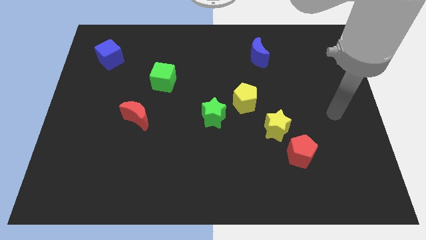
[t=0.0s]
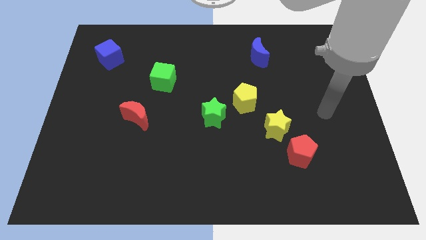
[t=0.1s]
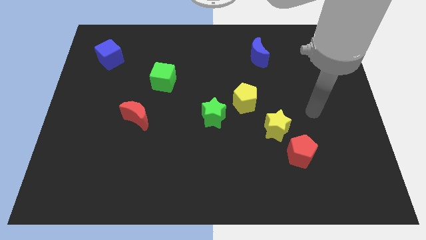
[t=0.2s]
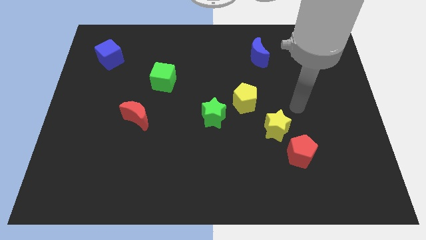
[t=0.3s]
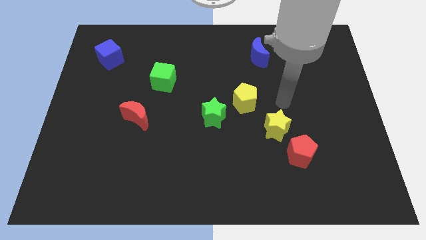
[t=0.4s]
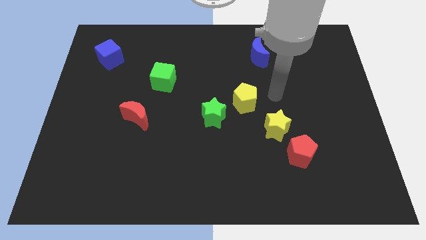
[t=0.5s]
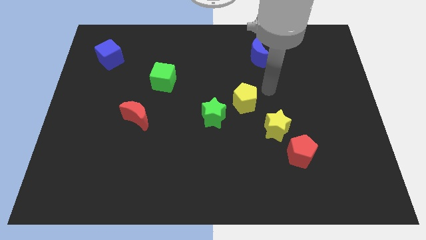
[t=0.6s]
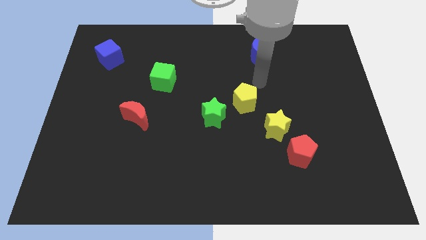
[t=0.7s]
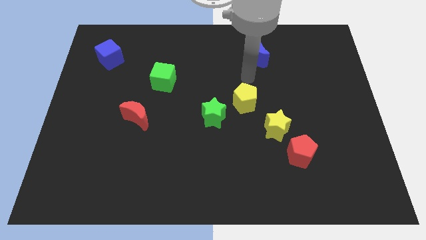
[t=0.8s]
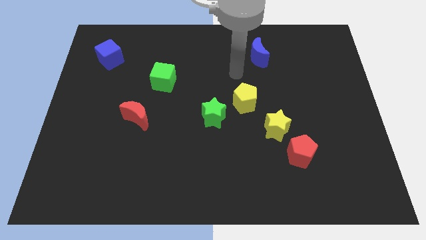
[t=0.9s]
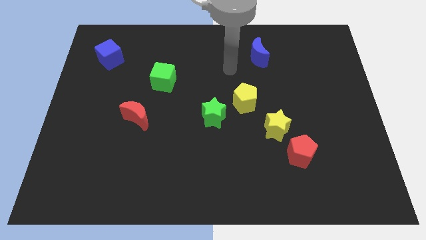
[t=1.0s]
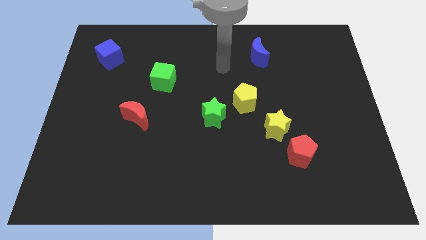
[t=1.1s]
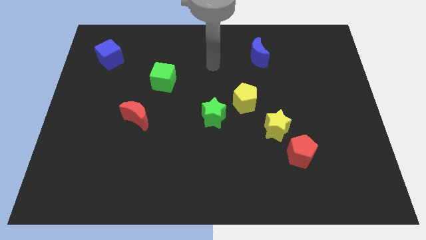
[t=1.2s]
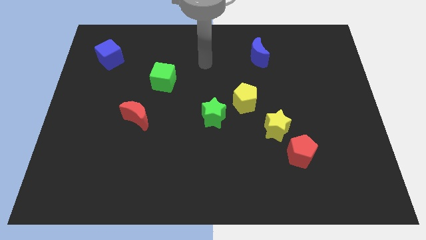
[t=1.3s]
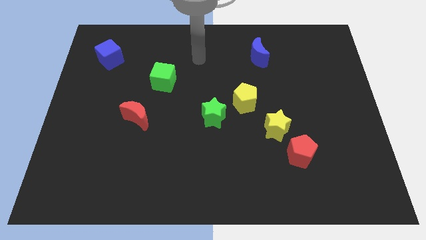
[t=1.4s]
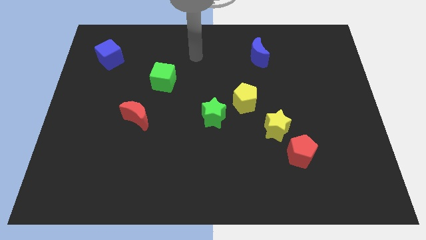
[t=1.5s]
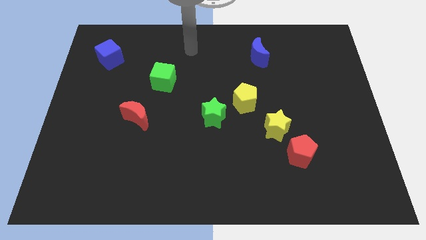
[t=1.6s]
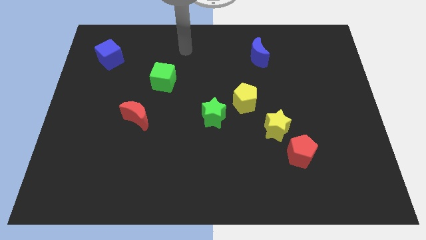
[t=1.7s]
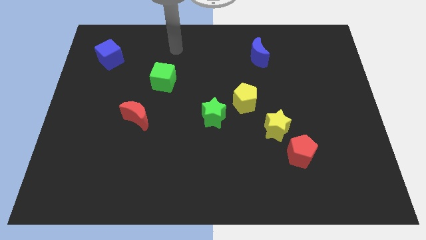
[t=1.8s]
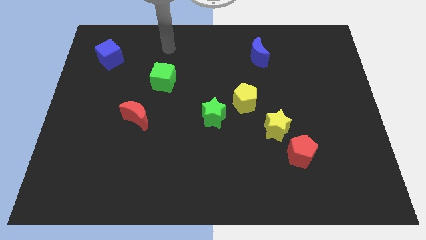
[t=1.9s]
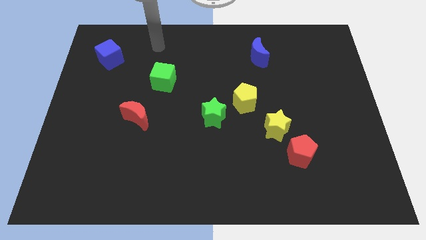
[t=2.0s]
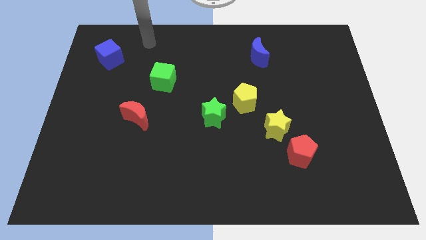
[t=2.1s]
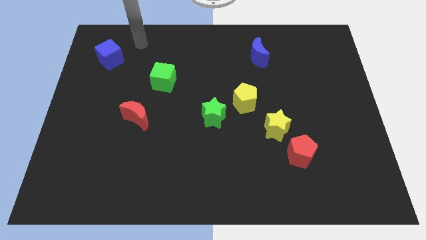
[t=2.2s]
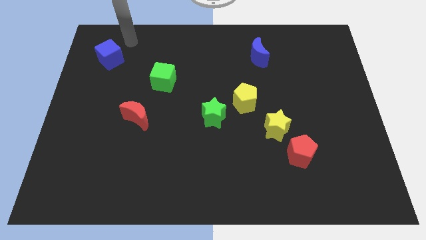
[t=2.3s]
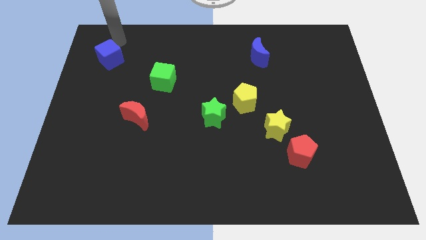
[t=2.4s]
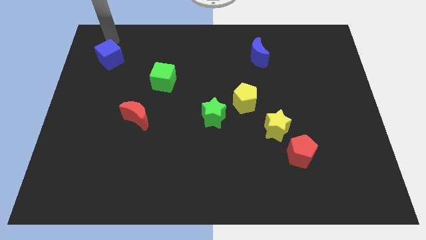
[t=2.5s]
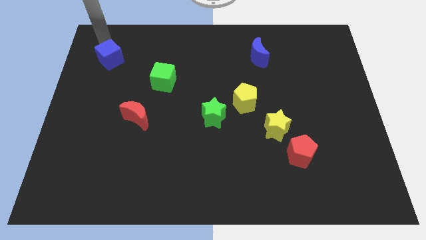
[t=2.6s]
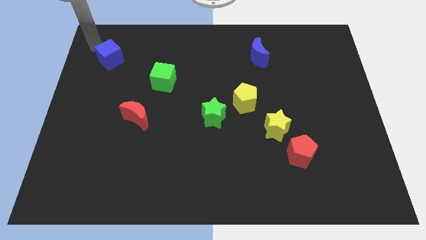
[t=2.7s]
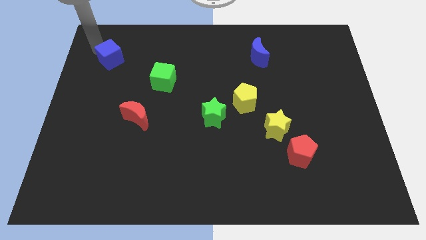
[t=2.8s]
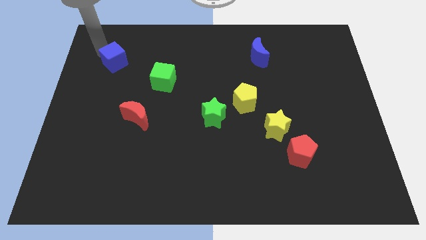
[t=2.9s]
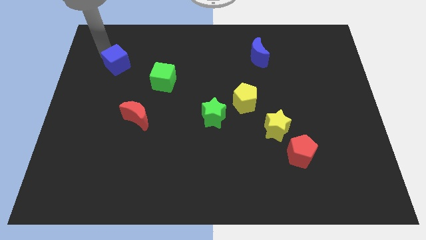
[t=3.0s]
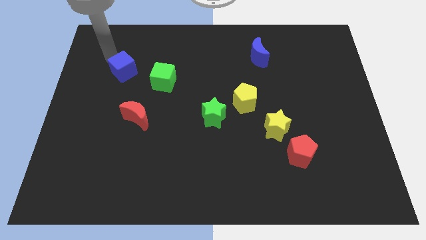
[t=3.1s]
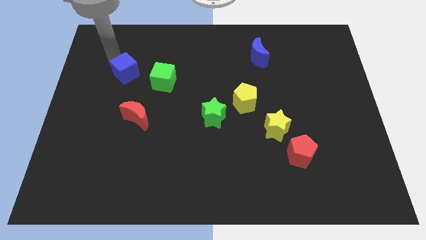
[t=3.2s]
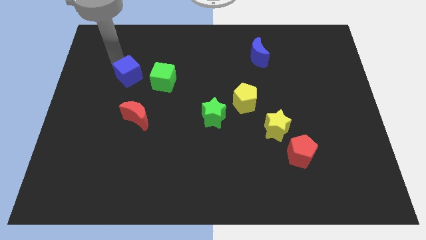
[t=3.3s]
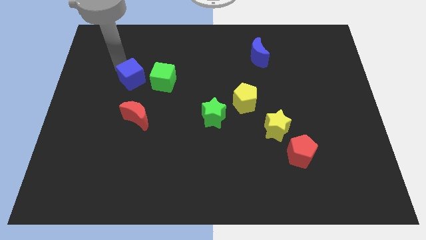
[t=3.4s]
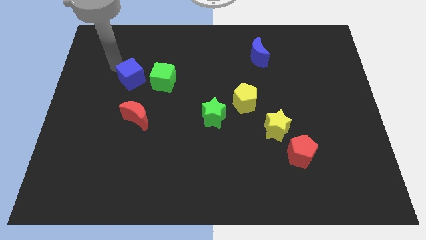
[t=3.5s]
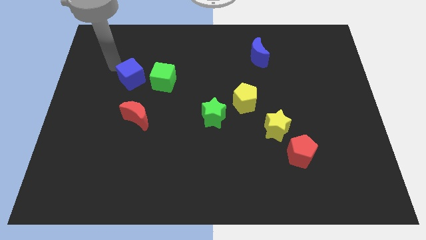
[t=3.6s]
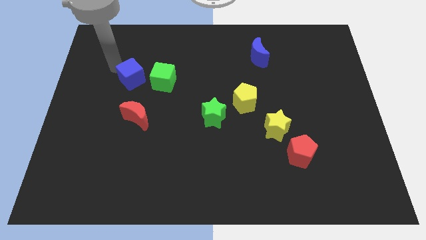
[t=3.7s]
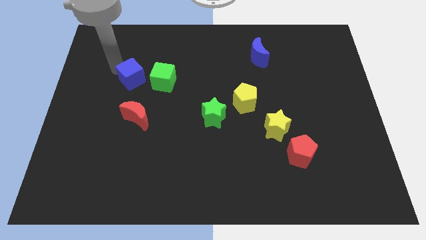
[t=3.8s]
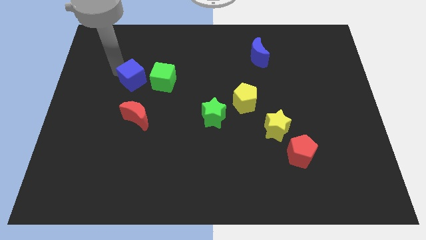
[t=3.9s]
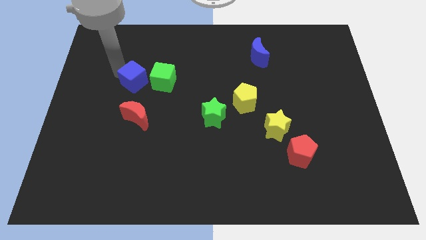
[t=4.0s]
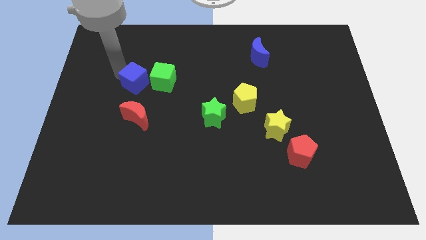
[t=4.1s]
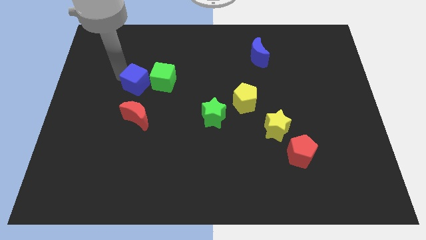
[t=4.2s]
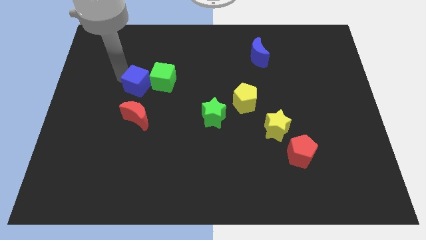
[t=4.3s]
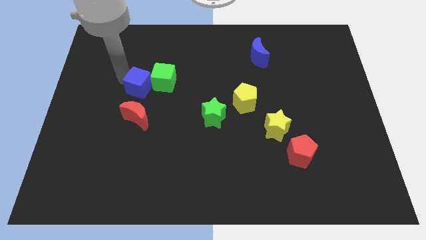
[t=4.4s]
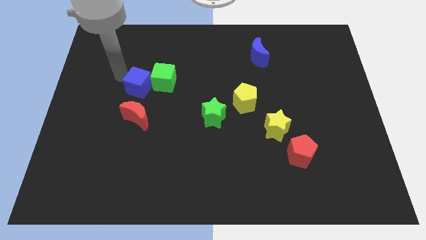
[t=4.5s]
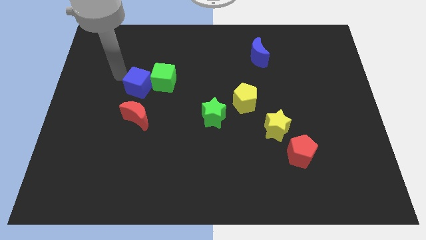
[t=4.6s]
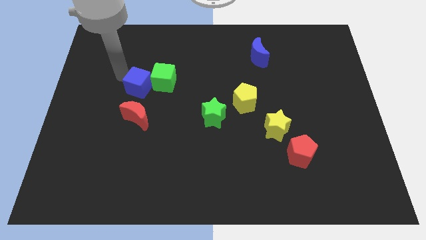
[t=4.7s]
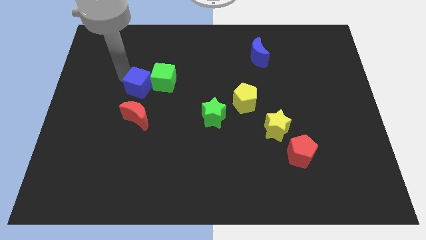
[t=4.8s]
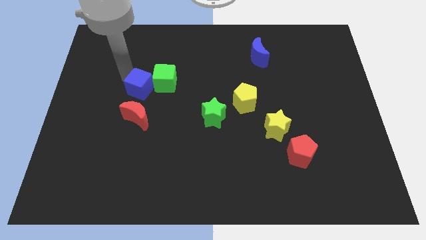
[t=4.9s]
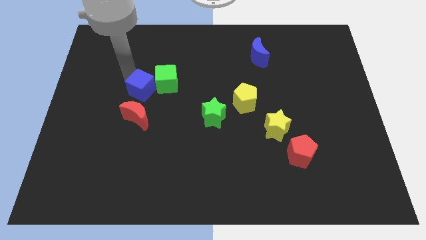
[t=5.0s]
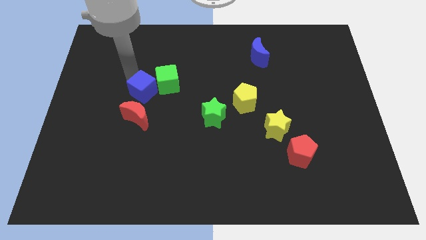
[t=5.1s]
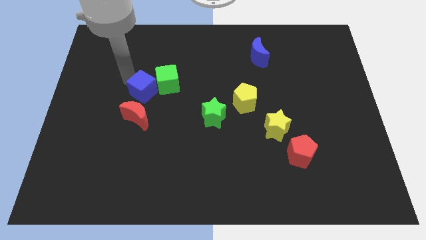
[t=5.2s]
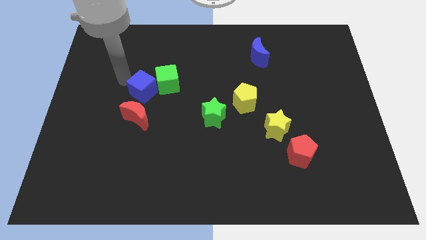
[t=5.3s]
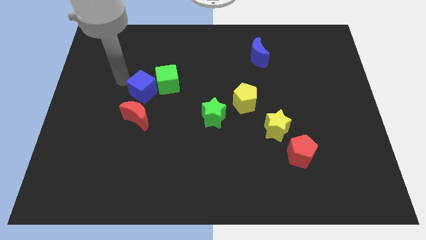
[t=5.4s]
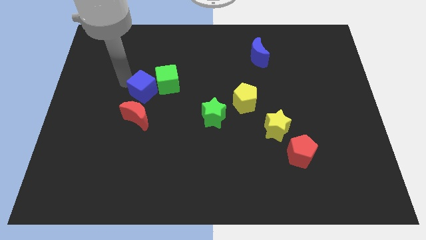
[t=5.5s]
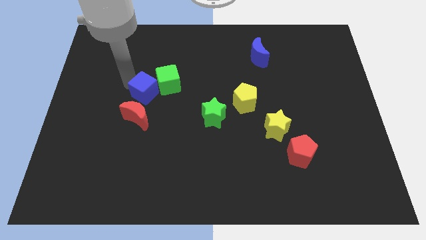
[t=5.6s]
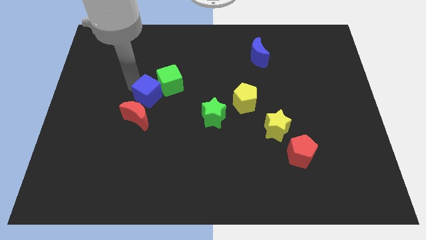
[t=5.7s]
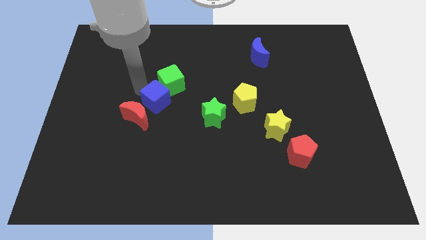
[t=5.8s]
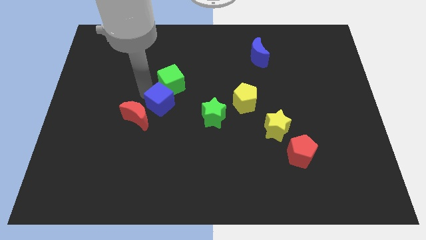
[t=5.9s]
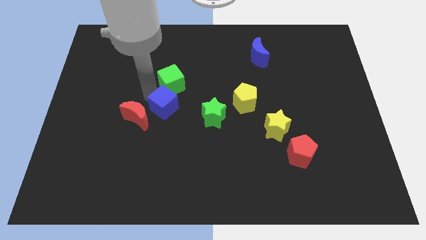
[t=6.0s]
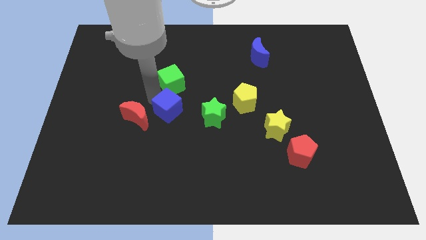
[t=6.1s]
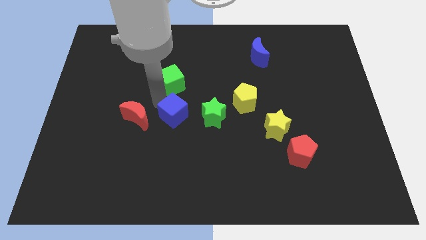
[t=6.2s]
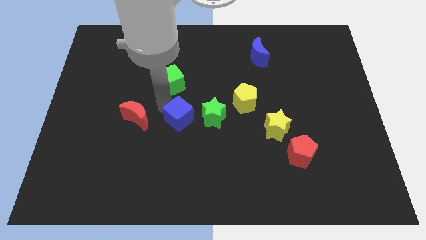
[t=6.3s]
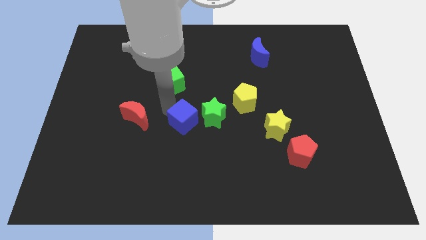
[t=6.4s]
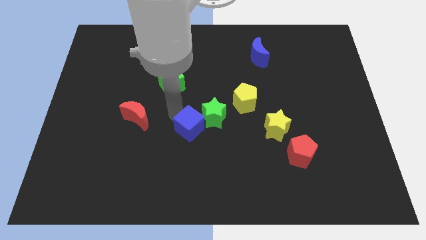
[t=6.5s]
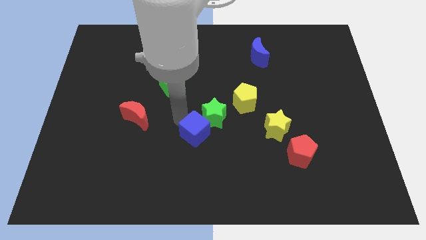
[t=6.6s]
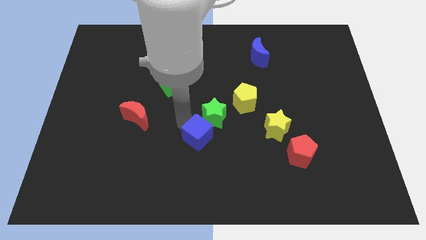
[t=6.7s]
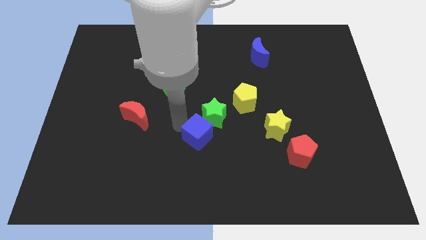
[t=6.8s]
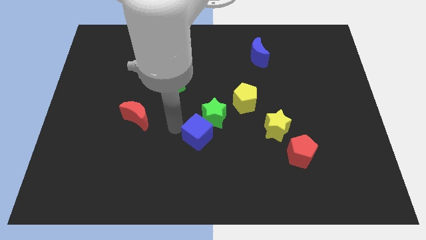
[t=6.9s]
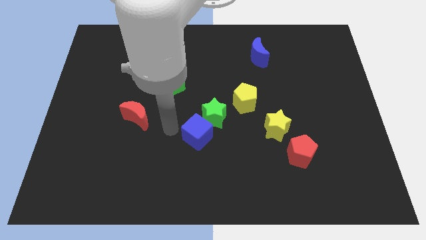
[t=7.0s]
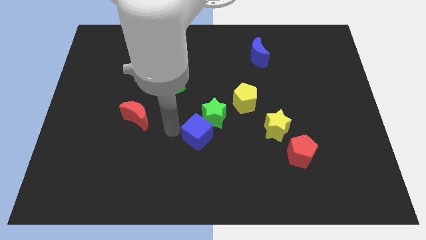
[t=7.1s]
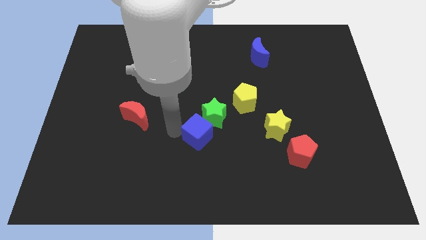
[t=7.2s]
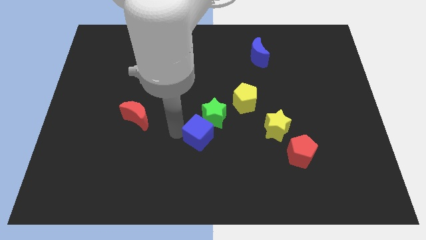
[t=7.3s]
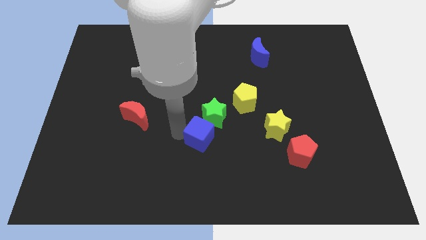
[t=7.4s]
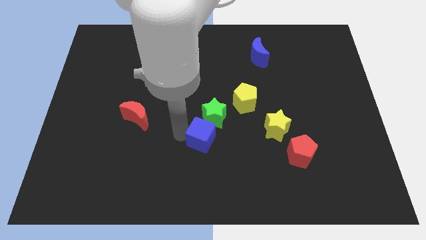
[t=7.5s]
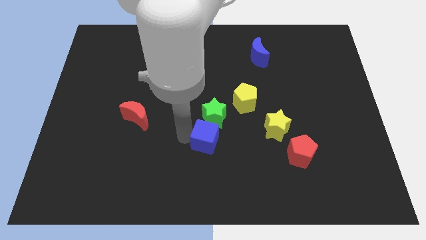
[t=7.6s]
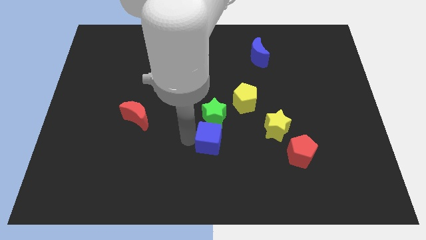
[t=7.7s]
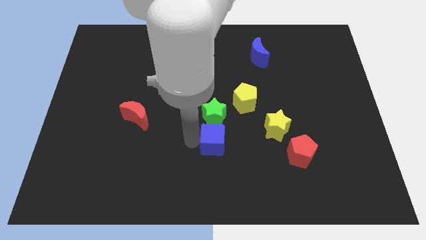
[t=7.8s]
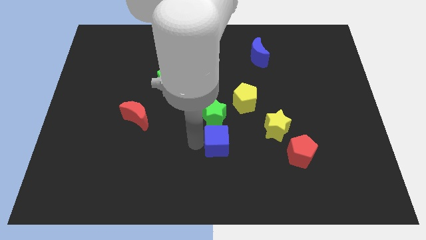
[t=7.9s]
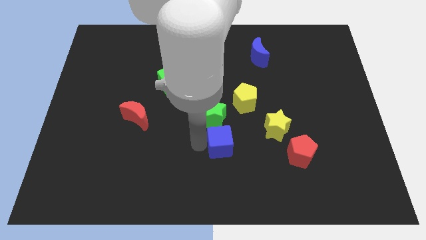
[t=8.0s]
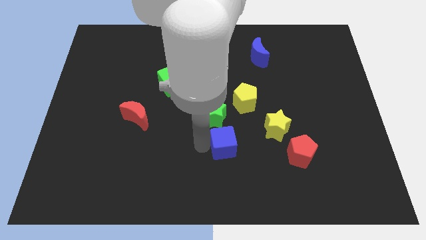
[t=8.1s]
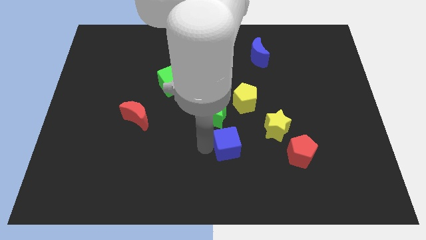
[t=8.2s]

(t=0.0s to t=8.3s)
move the blue cube to the bottom side of the yellow pentagon
